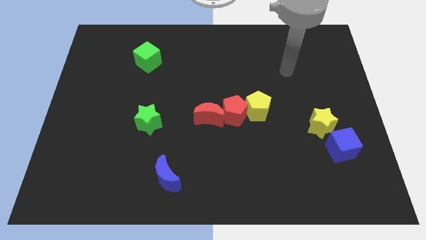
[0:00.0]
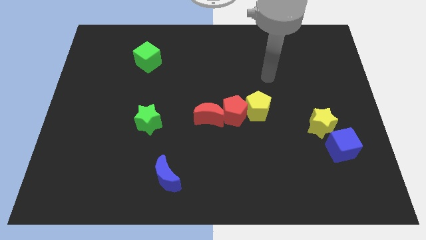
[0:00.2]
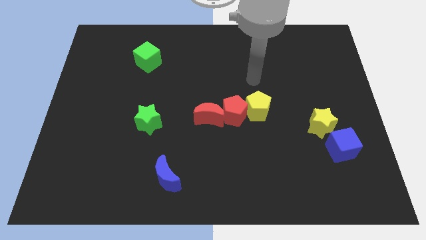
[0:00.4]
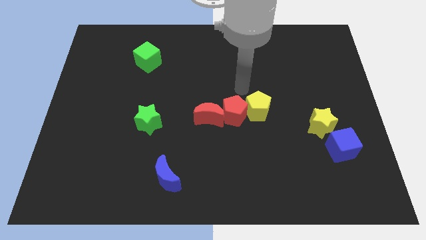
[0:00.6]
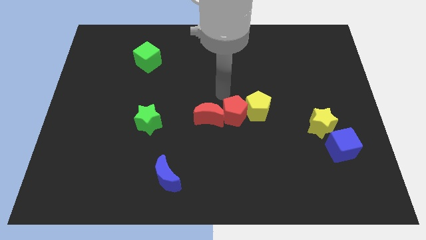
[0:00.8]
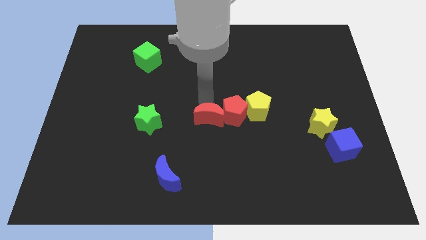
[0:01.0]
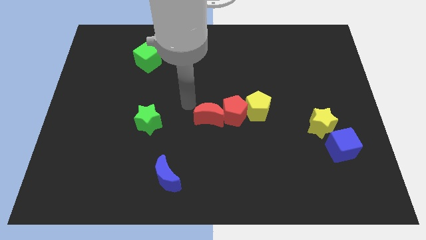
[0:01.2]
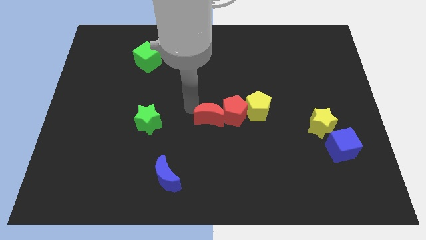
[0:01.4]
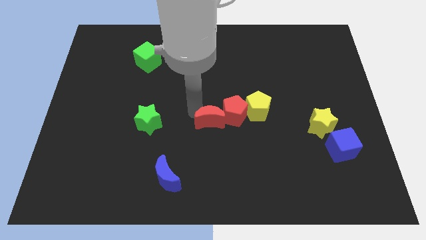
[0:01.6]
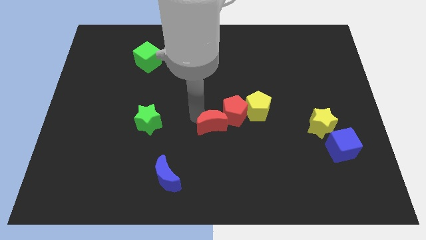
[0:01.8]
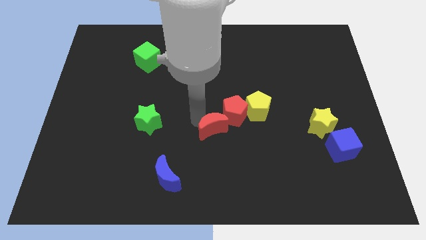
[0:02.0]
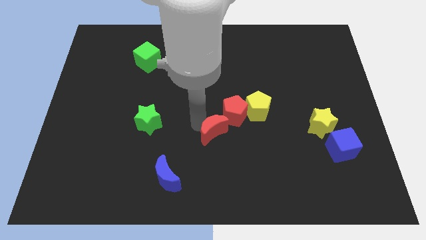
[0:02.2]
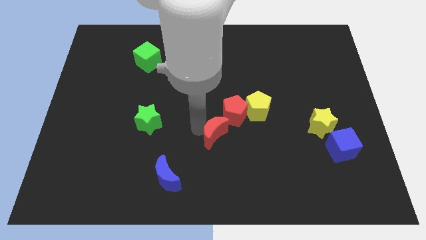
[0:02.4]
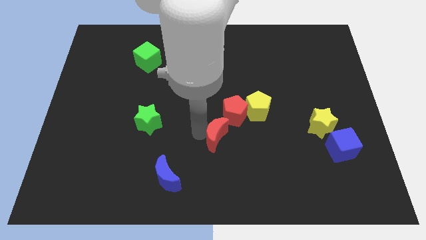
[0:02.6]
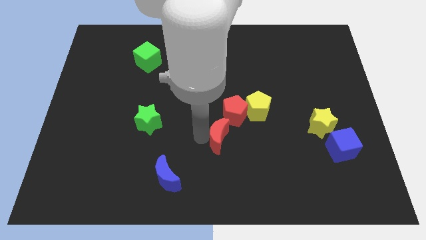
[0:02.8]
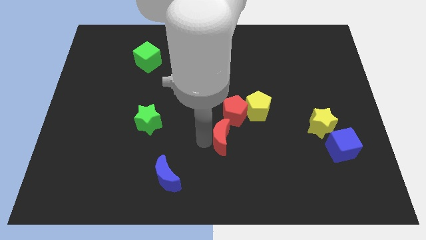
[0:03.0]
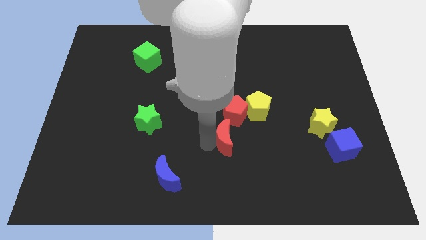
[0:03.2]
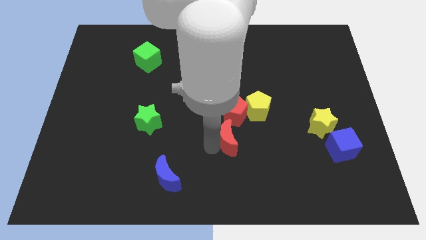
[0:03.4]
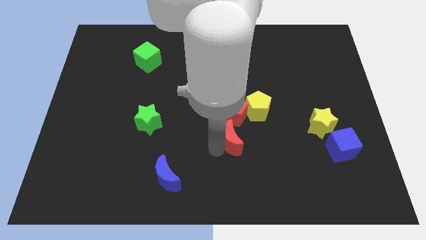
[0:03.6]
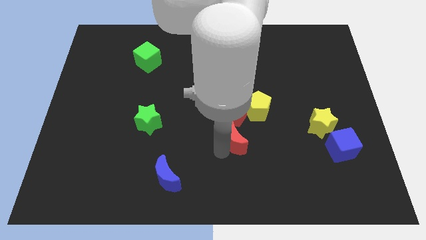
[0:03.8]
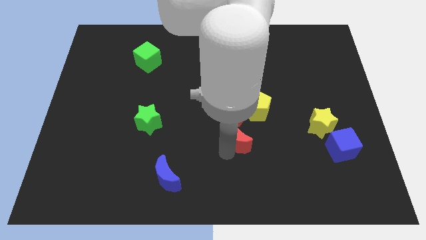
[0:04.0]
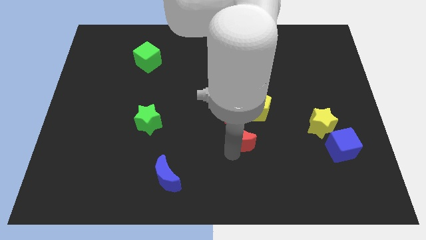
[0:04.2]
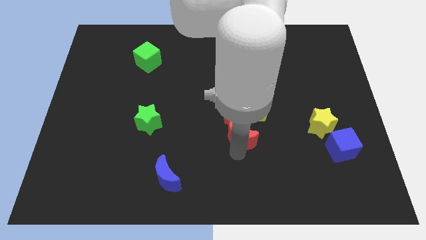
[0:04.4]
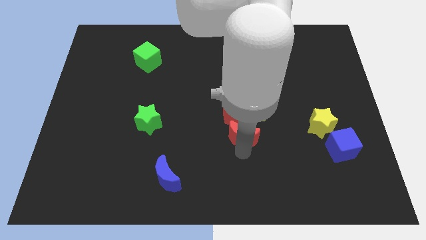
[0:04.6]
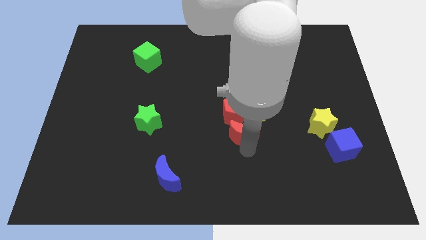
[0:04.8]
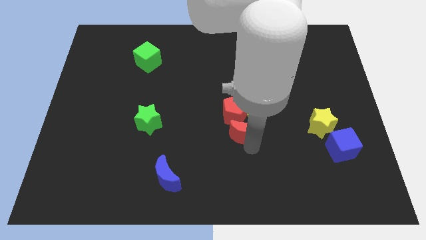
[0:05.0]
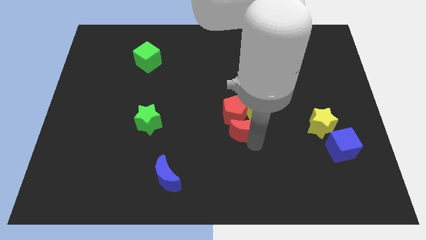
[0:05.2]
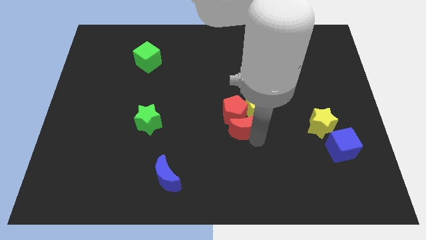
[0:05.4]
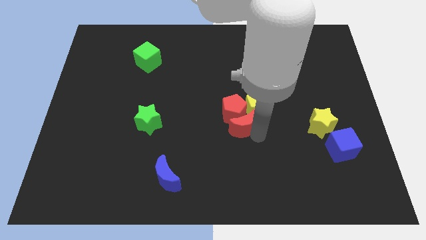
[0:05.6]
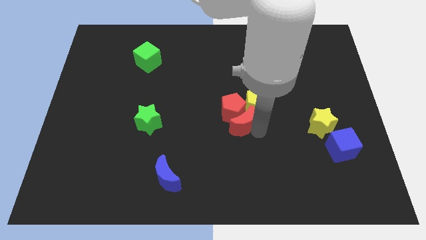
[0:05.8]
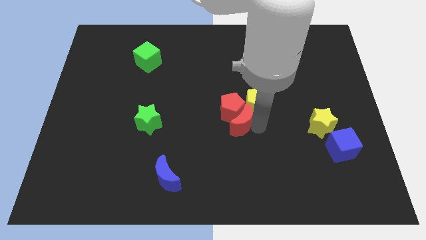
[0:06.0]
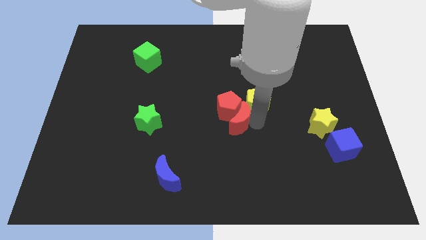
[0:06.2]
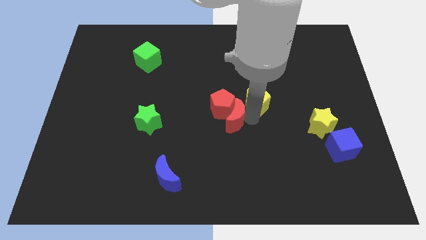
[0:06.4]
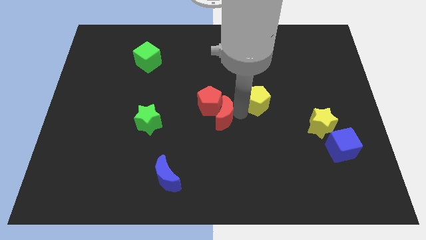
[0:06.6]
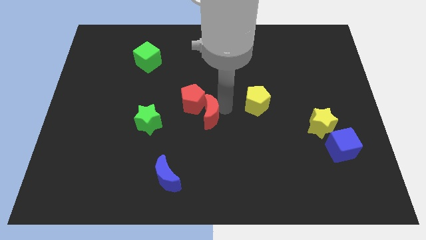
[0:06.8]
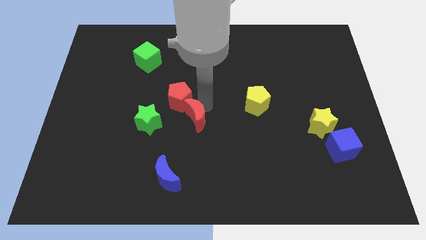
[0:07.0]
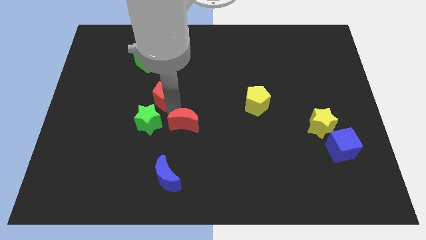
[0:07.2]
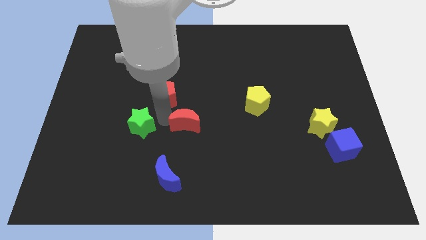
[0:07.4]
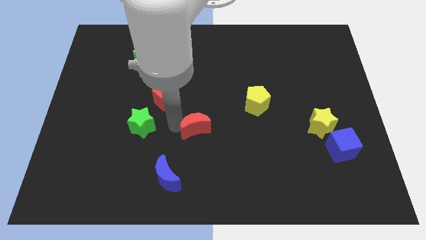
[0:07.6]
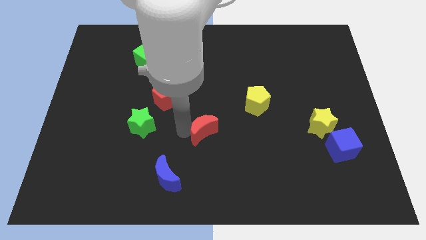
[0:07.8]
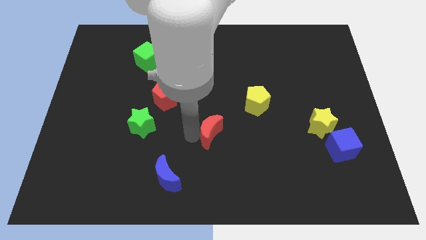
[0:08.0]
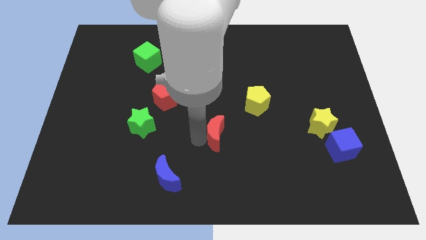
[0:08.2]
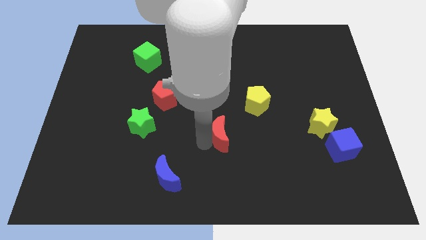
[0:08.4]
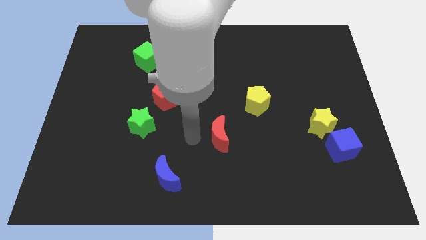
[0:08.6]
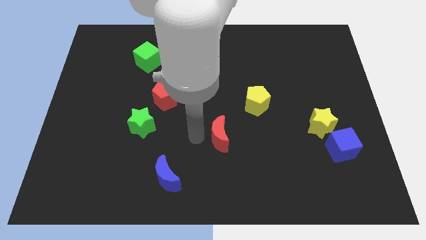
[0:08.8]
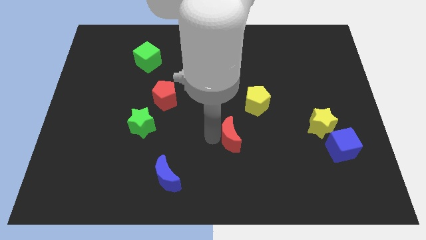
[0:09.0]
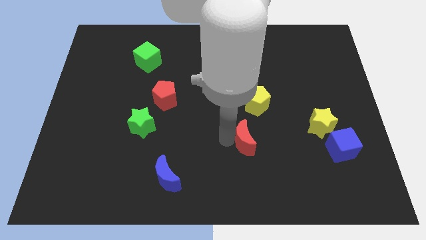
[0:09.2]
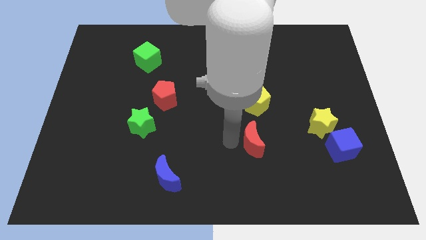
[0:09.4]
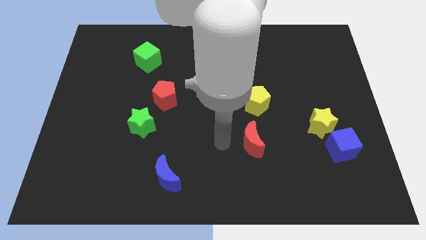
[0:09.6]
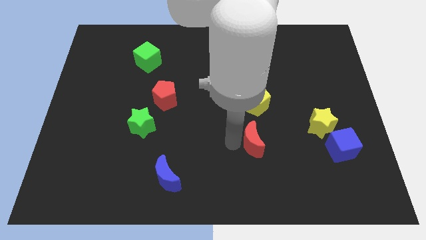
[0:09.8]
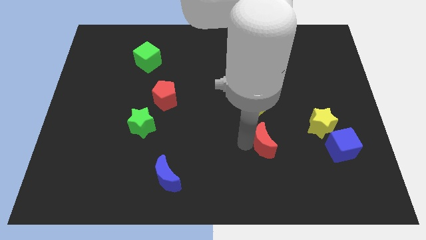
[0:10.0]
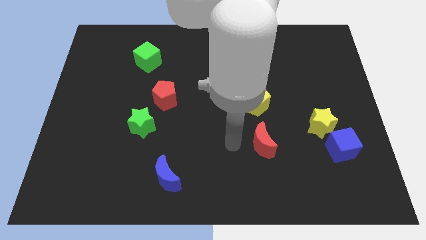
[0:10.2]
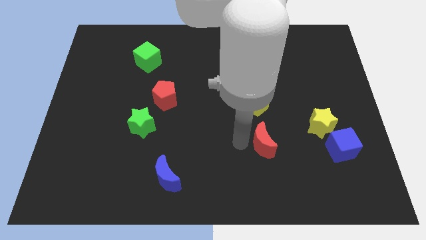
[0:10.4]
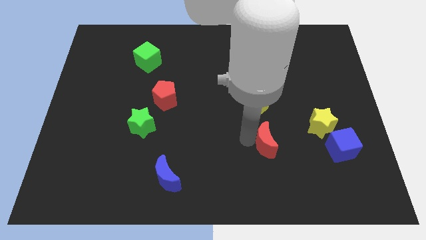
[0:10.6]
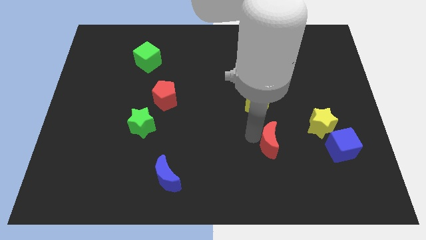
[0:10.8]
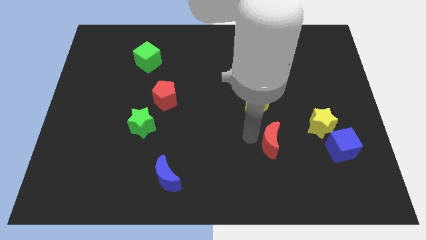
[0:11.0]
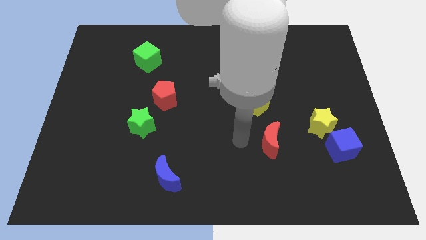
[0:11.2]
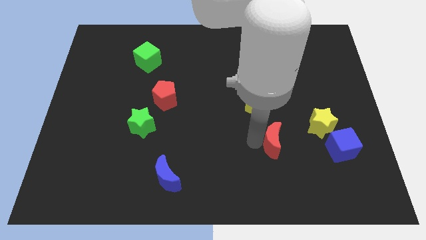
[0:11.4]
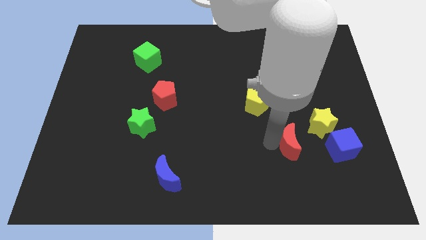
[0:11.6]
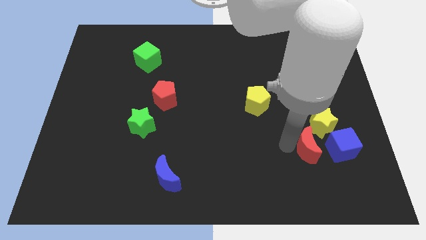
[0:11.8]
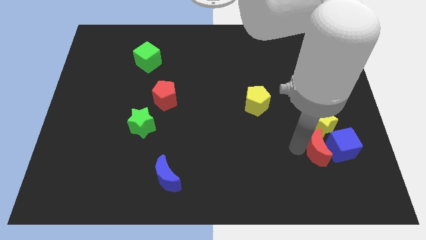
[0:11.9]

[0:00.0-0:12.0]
slide the red moon to the blue cube
